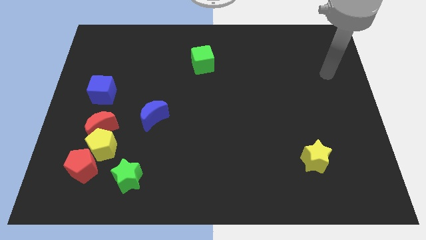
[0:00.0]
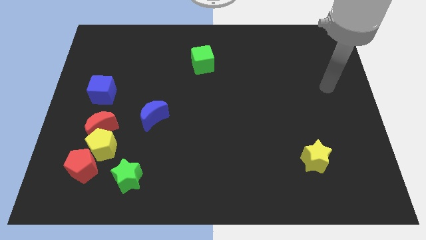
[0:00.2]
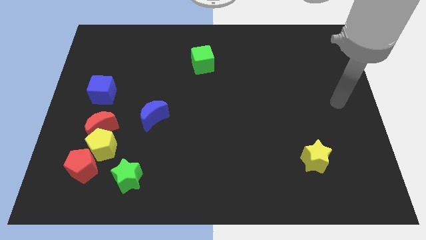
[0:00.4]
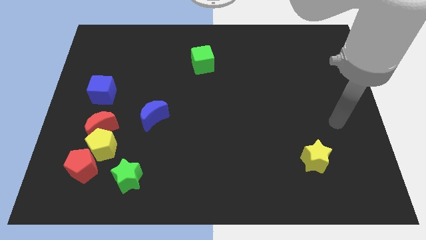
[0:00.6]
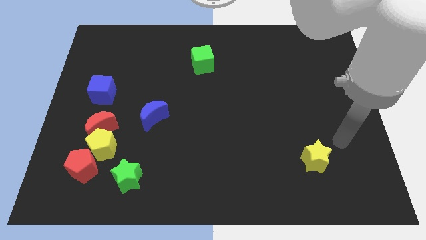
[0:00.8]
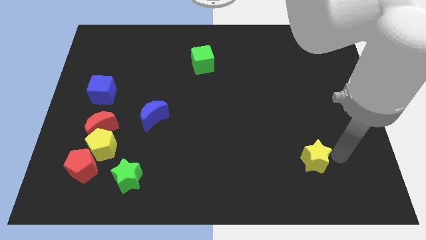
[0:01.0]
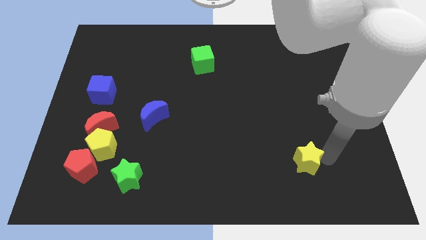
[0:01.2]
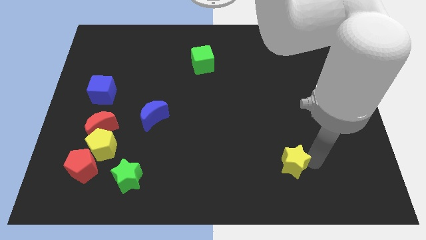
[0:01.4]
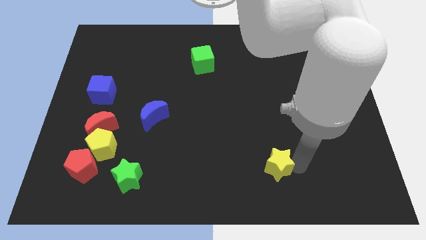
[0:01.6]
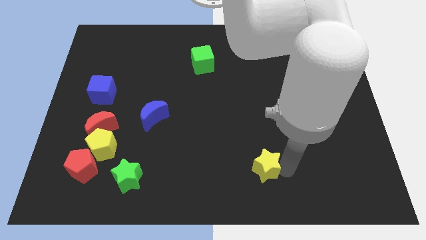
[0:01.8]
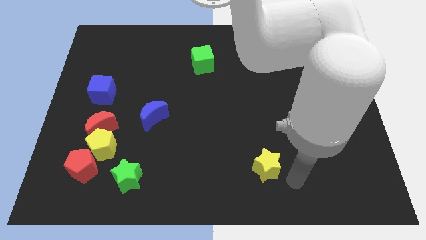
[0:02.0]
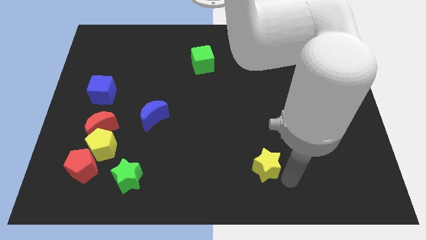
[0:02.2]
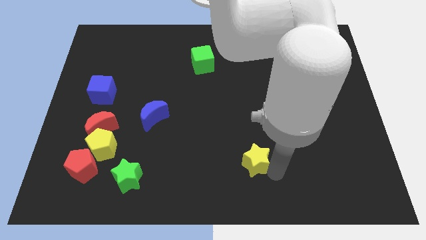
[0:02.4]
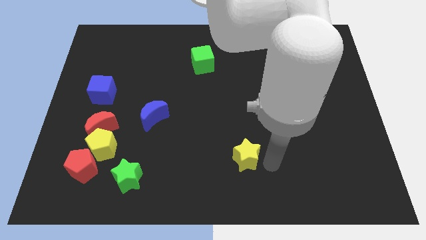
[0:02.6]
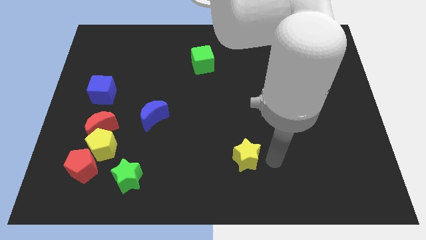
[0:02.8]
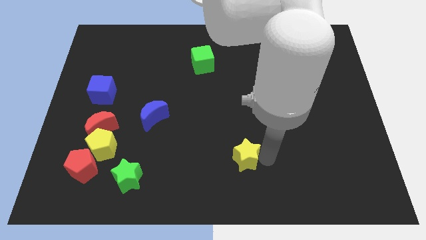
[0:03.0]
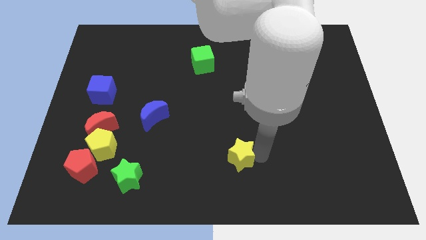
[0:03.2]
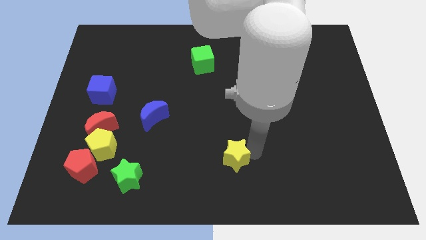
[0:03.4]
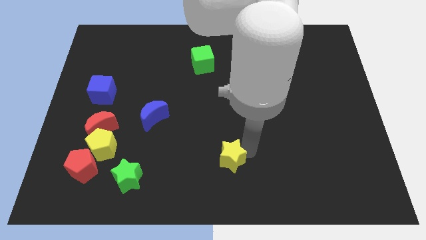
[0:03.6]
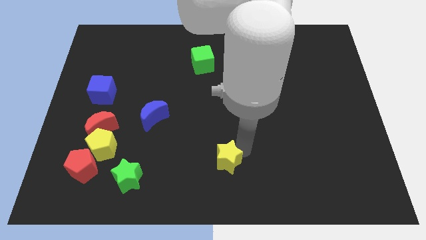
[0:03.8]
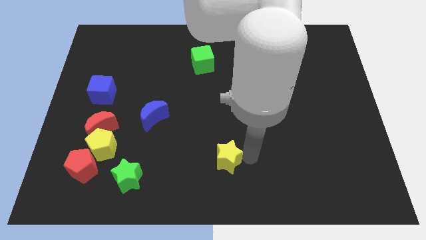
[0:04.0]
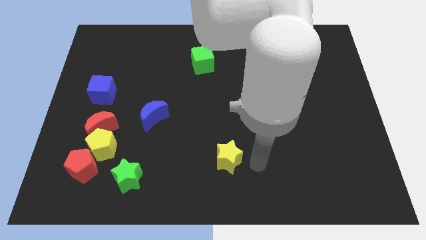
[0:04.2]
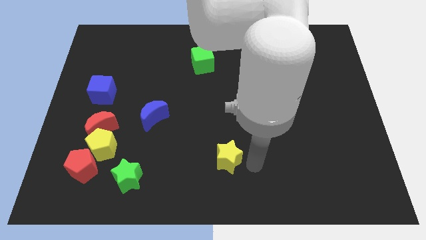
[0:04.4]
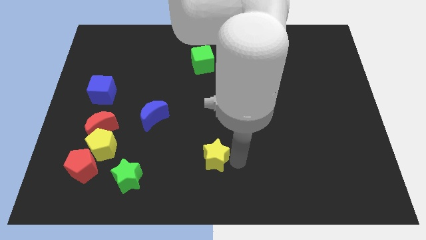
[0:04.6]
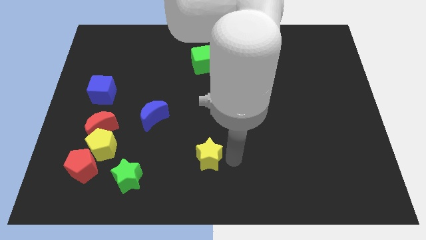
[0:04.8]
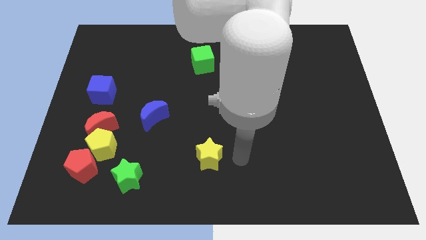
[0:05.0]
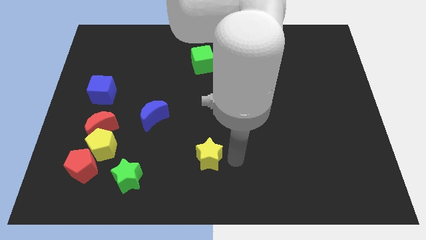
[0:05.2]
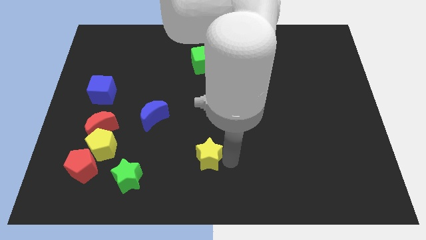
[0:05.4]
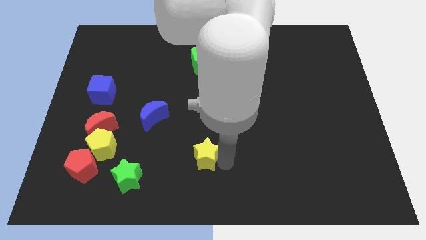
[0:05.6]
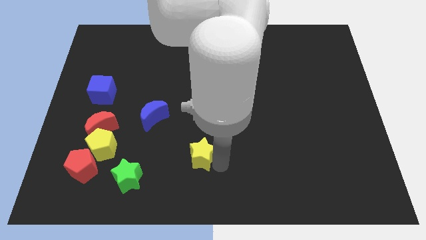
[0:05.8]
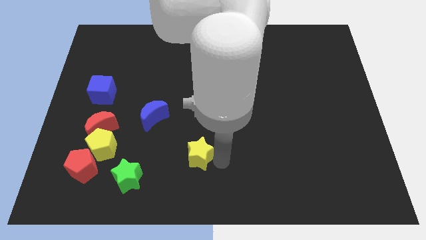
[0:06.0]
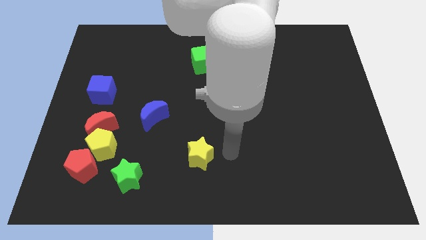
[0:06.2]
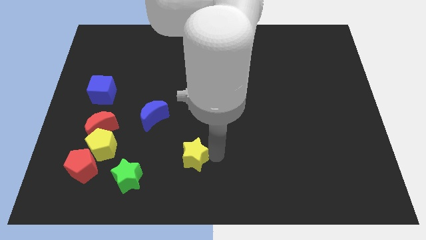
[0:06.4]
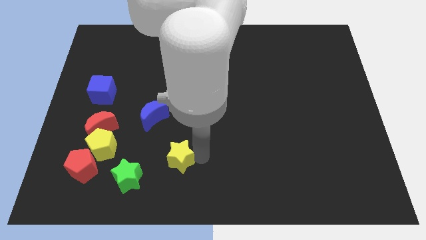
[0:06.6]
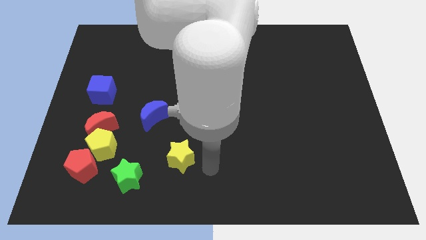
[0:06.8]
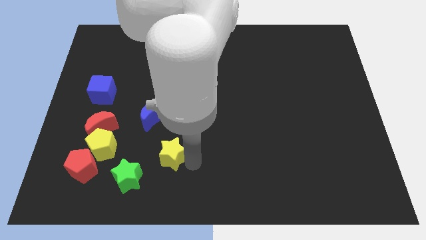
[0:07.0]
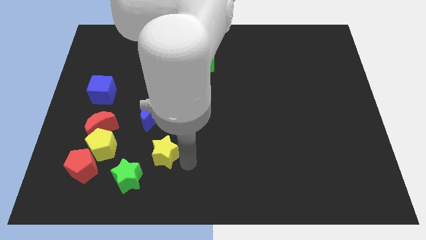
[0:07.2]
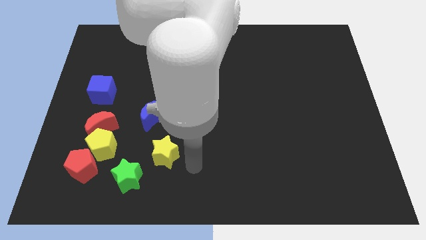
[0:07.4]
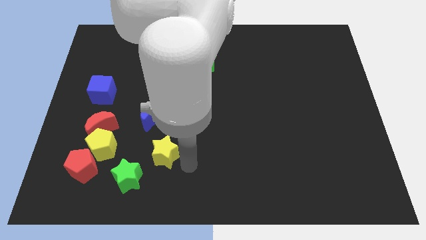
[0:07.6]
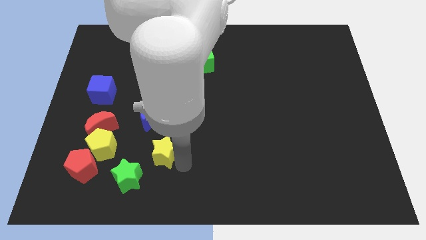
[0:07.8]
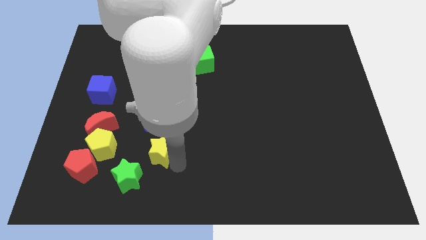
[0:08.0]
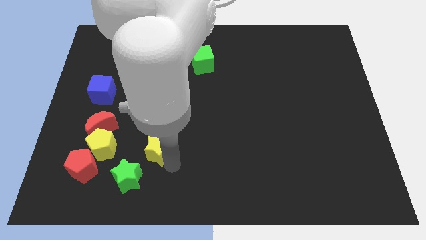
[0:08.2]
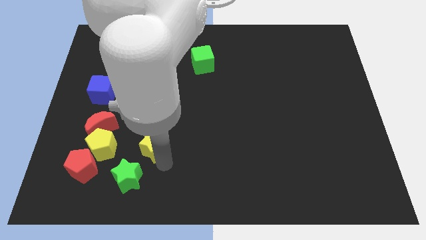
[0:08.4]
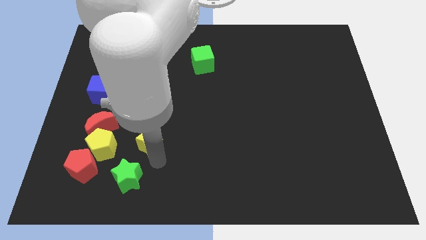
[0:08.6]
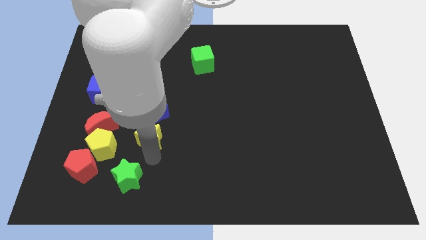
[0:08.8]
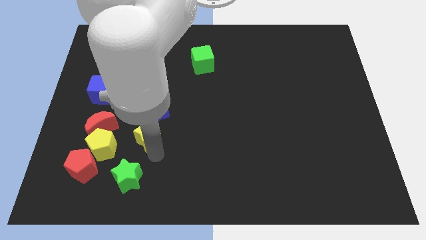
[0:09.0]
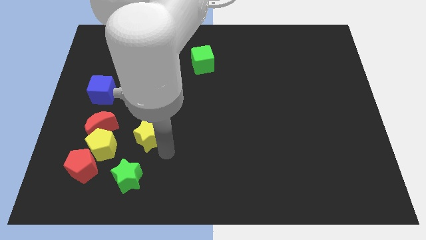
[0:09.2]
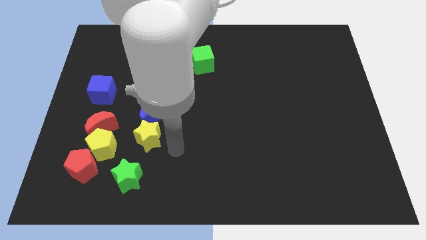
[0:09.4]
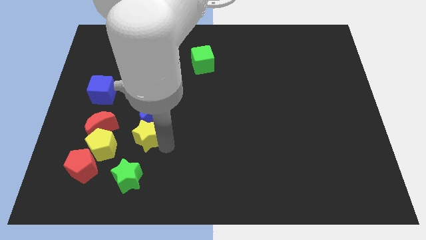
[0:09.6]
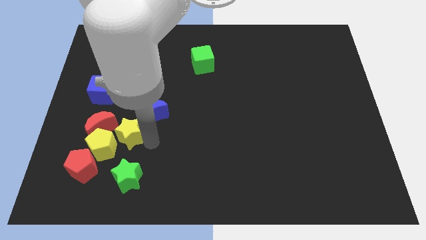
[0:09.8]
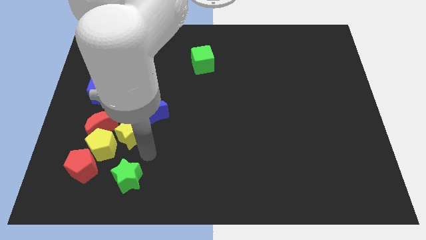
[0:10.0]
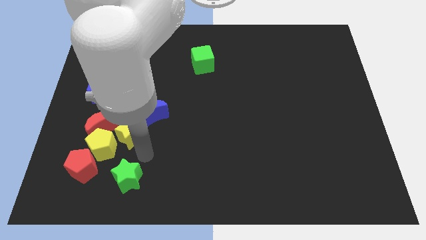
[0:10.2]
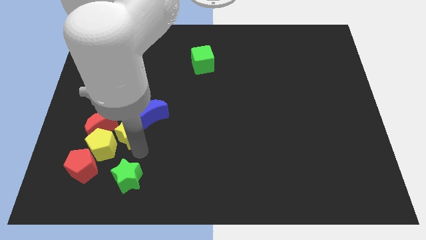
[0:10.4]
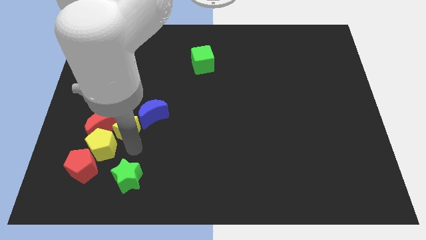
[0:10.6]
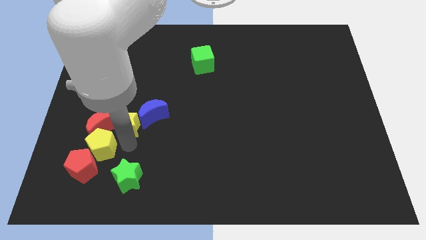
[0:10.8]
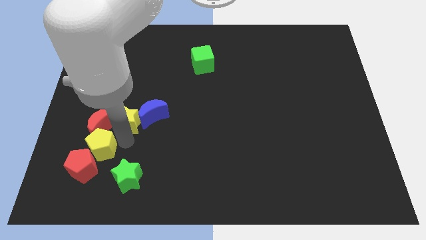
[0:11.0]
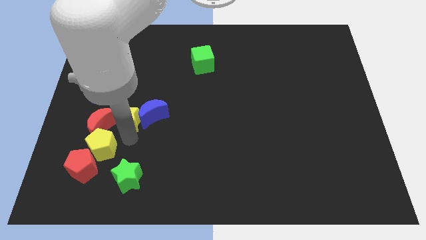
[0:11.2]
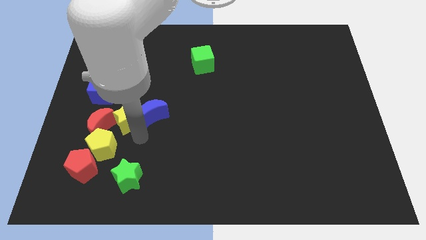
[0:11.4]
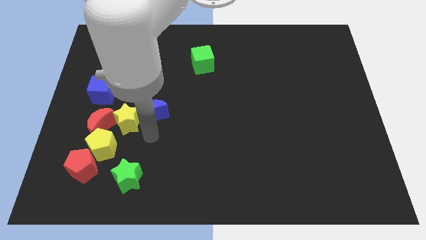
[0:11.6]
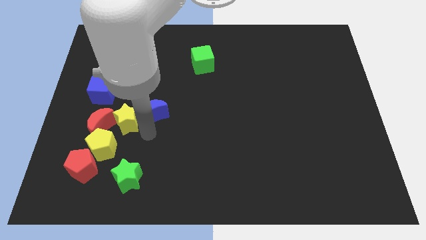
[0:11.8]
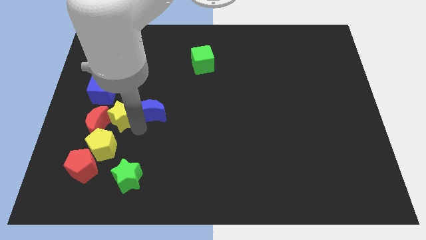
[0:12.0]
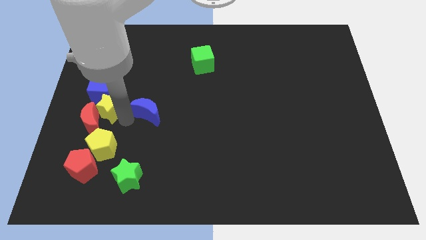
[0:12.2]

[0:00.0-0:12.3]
move the yellow star above the red pentagon

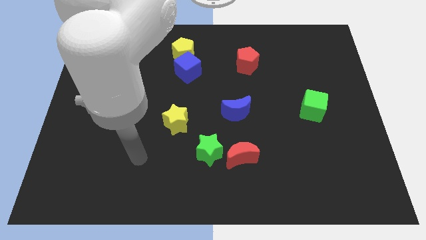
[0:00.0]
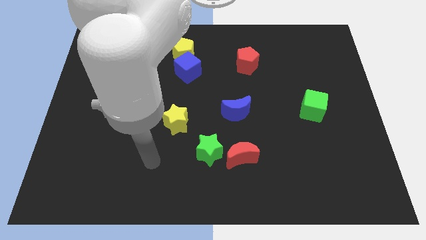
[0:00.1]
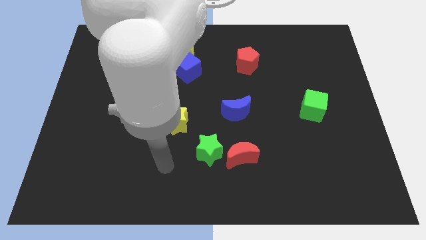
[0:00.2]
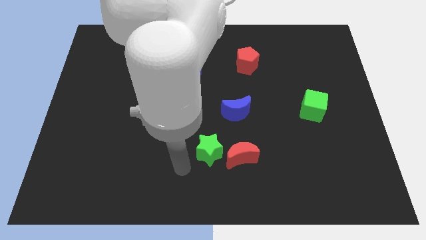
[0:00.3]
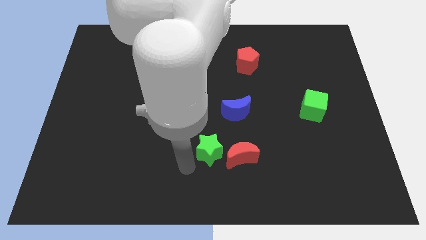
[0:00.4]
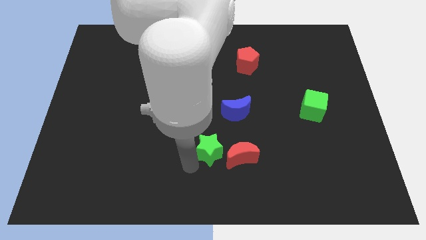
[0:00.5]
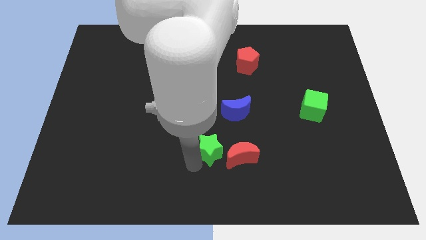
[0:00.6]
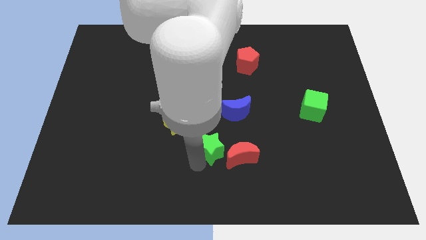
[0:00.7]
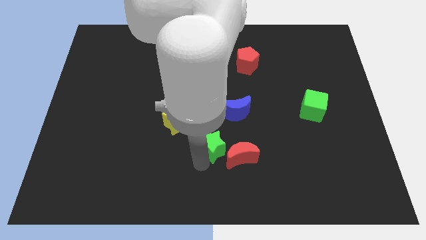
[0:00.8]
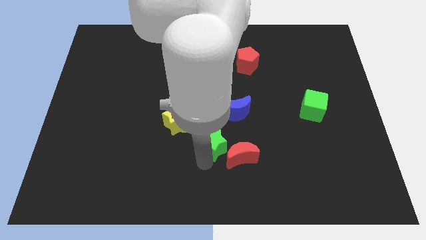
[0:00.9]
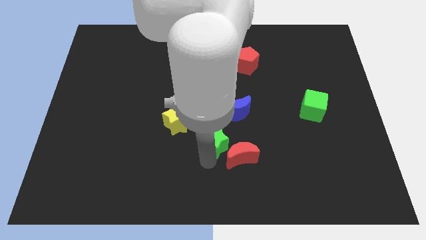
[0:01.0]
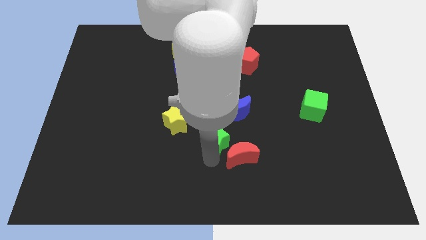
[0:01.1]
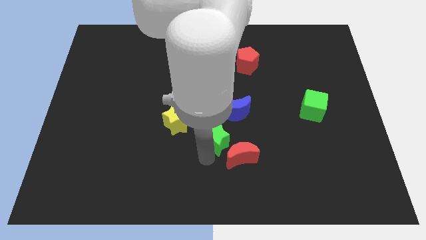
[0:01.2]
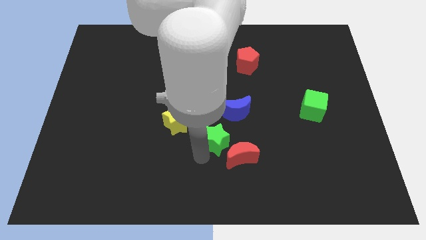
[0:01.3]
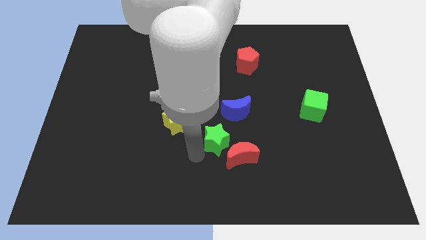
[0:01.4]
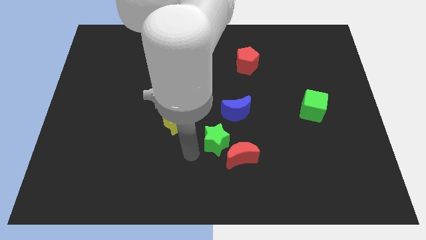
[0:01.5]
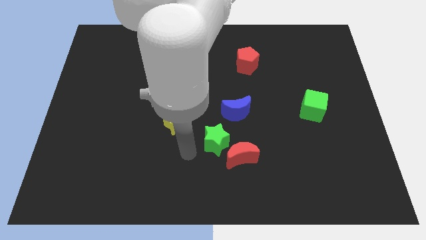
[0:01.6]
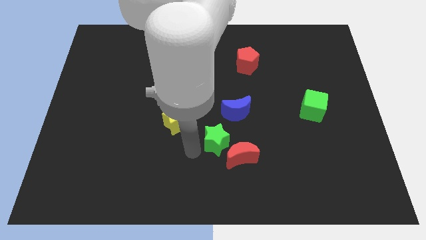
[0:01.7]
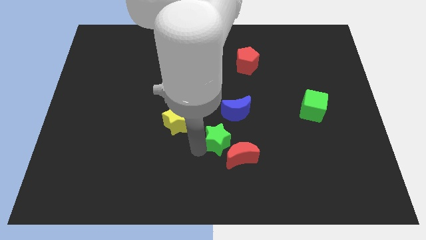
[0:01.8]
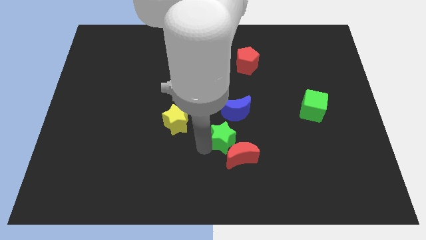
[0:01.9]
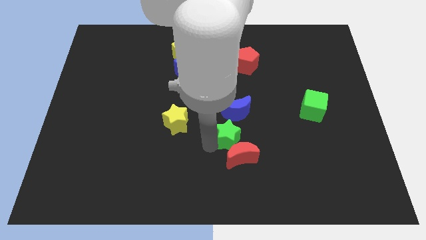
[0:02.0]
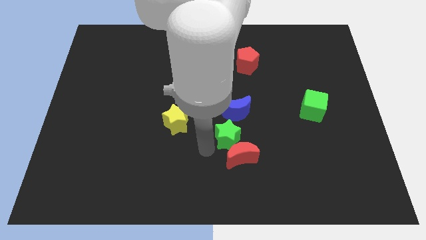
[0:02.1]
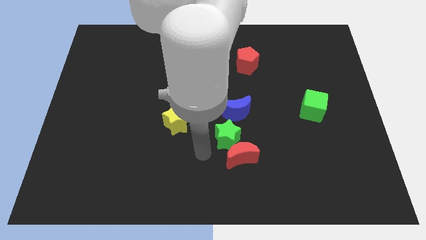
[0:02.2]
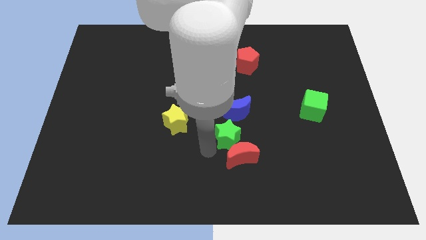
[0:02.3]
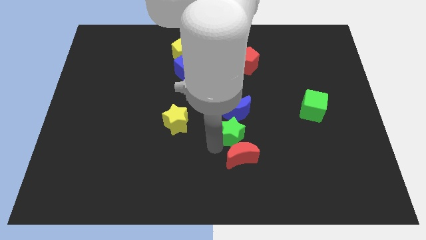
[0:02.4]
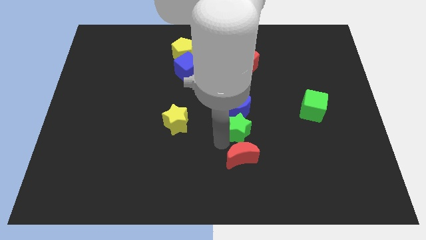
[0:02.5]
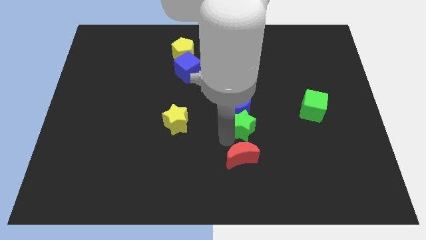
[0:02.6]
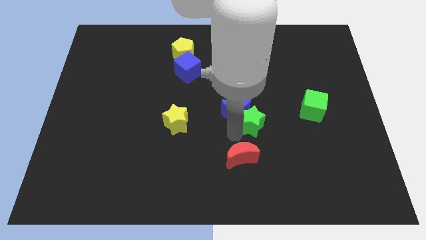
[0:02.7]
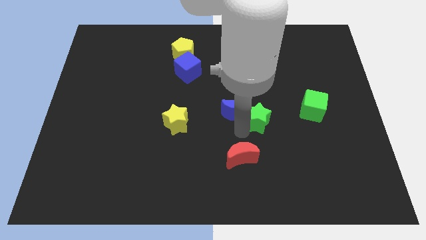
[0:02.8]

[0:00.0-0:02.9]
move the green star to the left of the green cube
